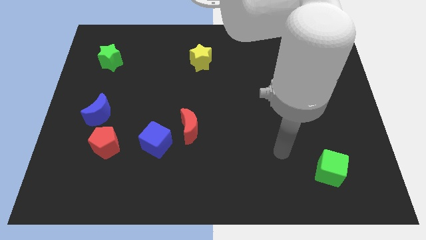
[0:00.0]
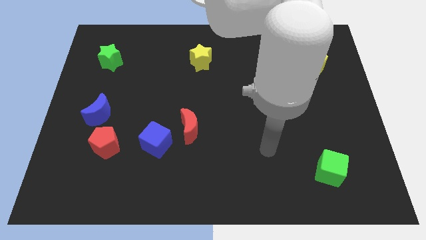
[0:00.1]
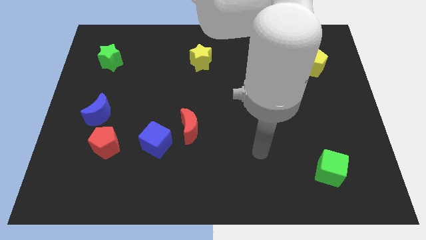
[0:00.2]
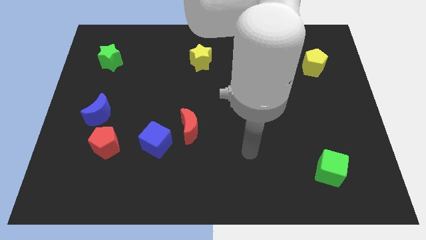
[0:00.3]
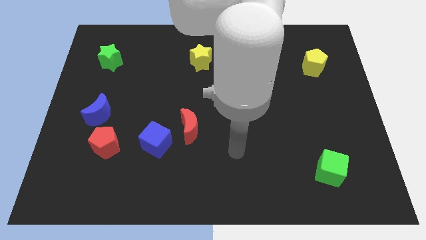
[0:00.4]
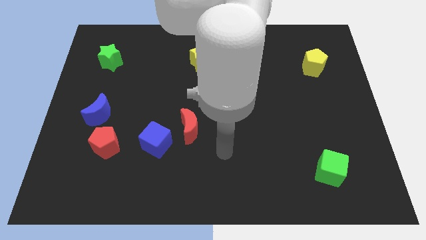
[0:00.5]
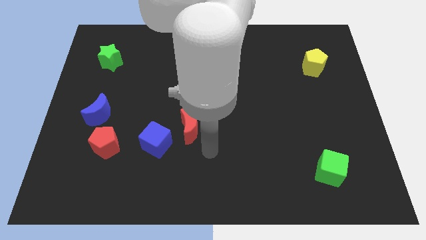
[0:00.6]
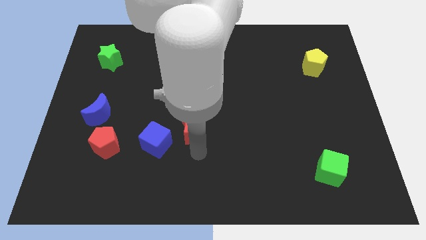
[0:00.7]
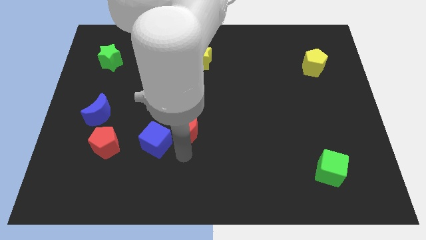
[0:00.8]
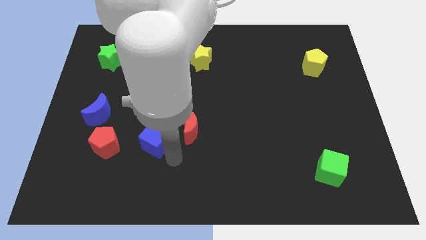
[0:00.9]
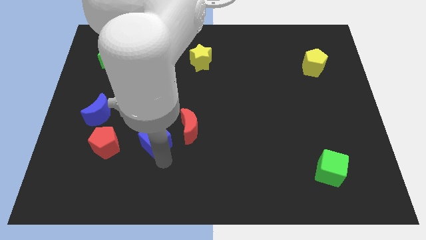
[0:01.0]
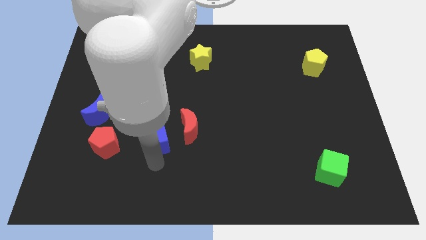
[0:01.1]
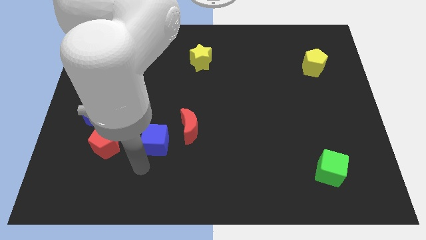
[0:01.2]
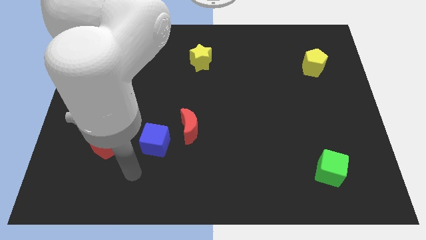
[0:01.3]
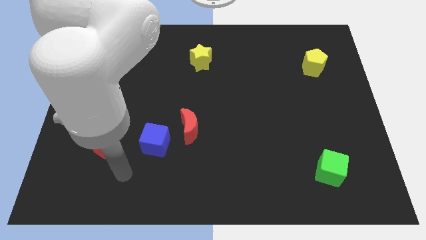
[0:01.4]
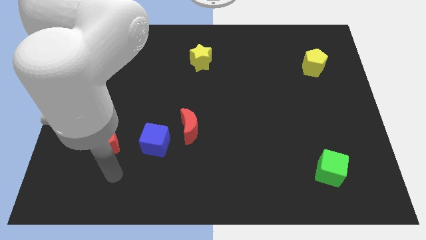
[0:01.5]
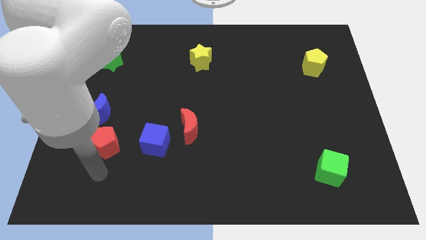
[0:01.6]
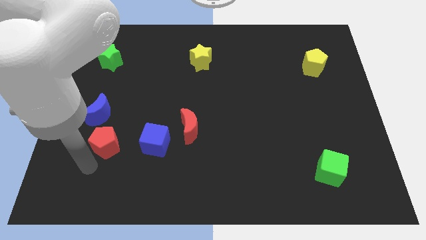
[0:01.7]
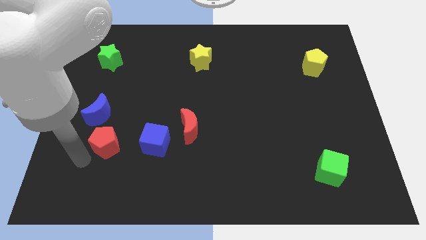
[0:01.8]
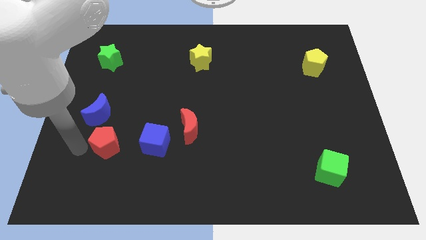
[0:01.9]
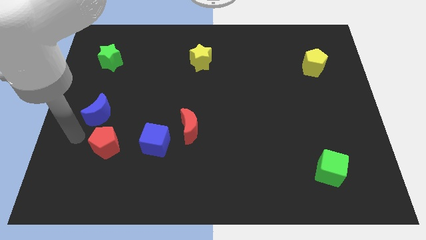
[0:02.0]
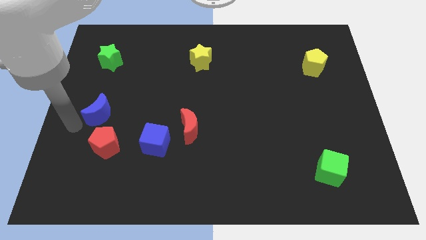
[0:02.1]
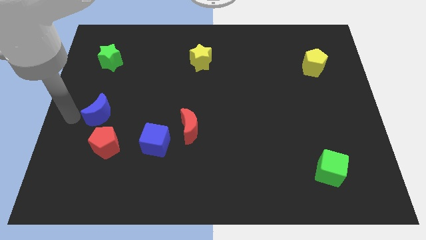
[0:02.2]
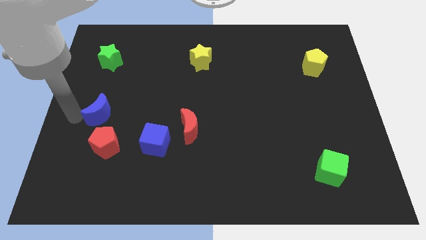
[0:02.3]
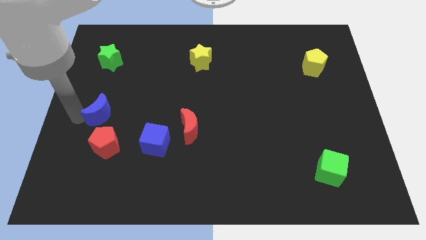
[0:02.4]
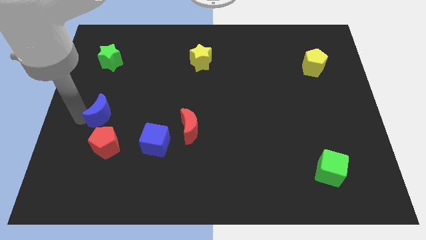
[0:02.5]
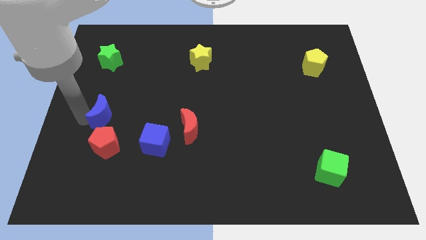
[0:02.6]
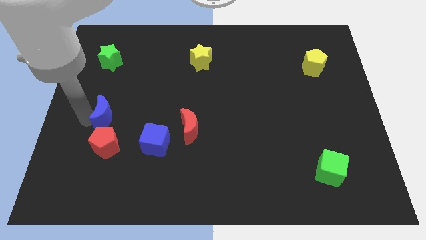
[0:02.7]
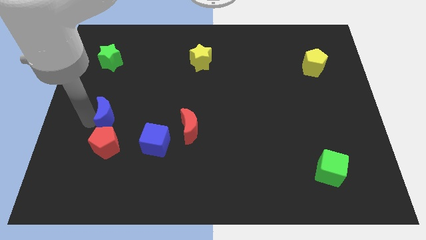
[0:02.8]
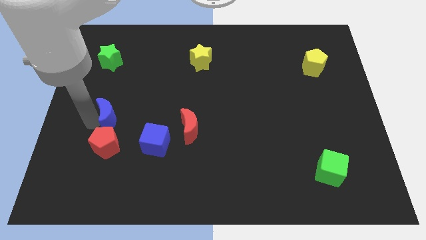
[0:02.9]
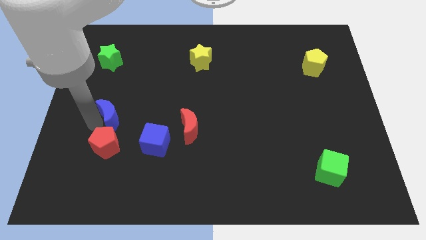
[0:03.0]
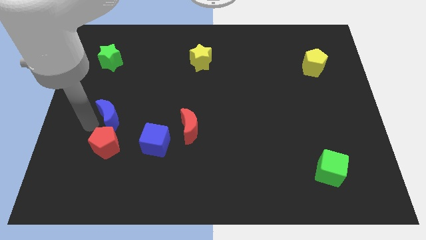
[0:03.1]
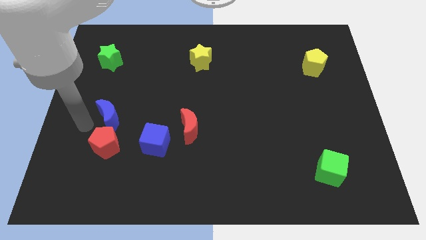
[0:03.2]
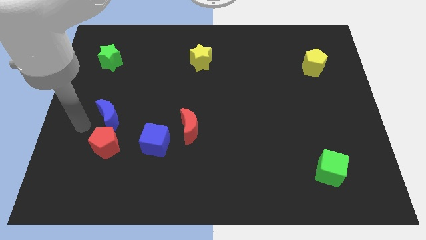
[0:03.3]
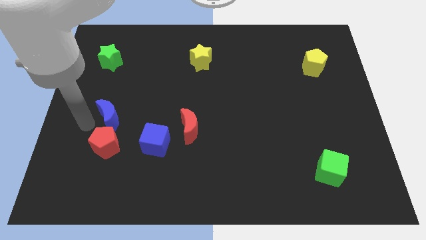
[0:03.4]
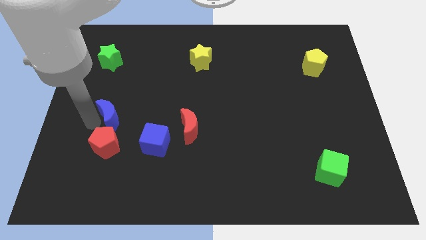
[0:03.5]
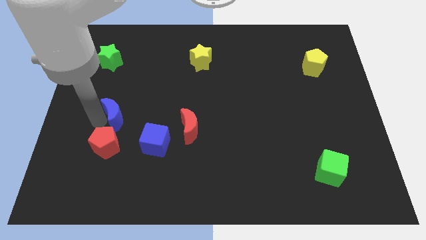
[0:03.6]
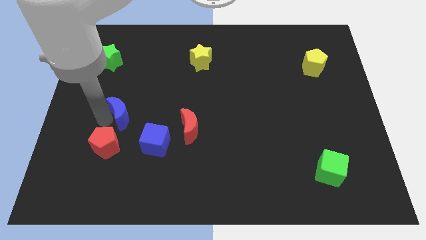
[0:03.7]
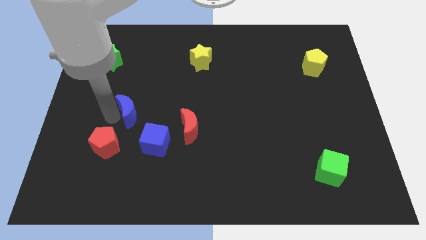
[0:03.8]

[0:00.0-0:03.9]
slightly move the blue moon to the right

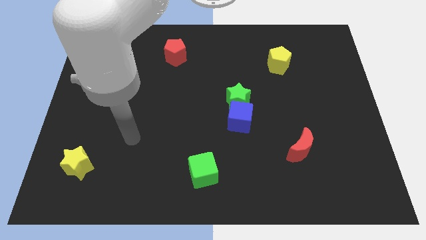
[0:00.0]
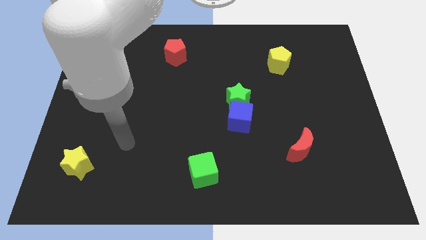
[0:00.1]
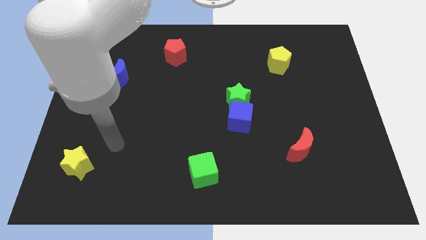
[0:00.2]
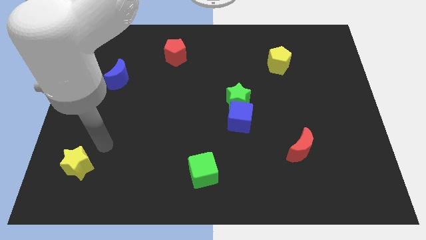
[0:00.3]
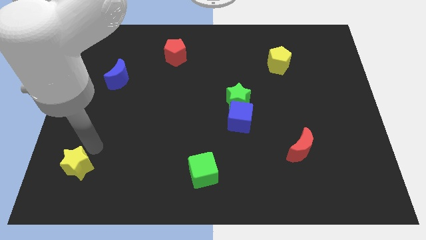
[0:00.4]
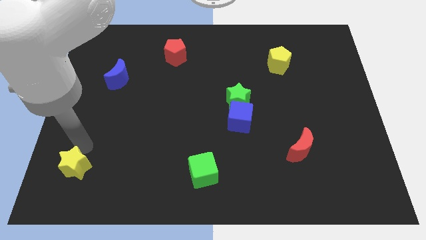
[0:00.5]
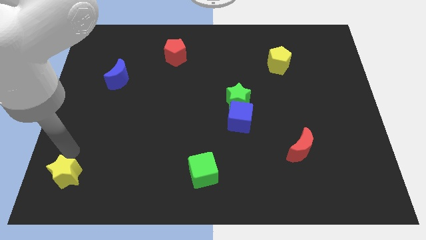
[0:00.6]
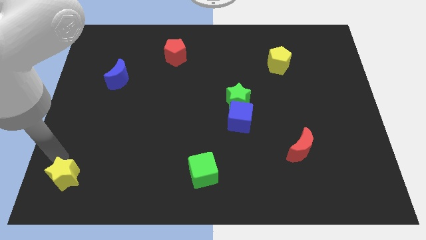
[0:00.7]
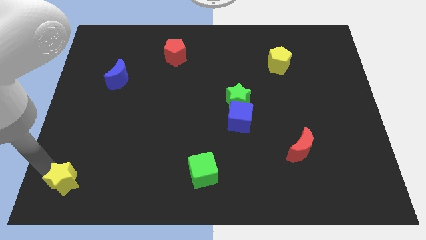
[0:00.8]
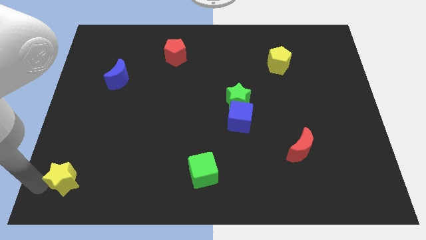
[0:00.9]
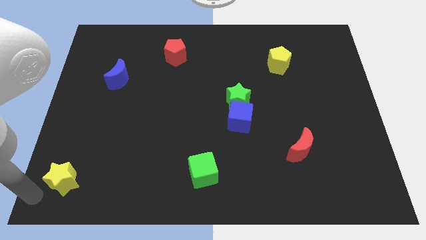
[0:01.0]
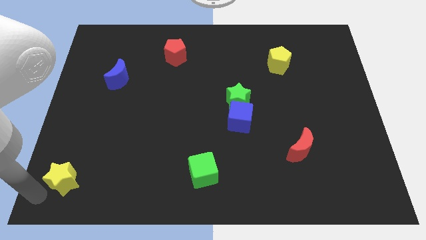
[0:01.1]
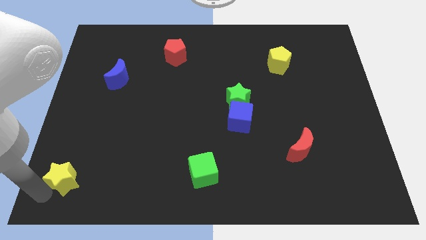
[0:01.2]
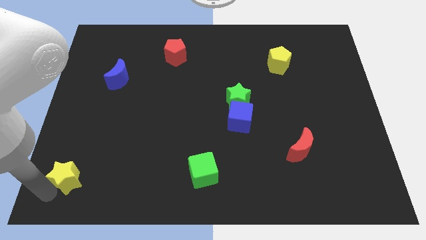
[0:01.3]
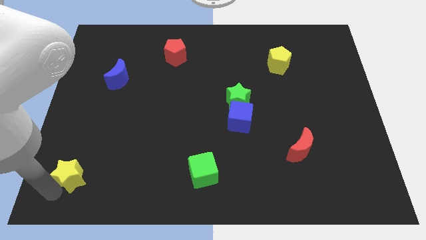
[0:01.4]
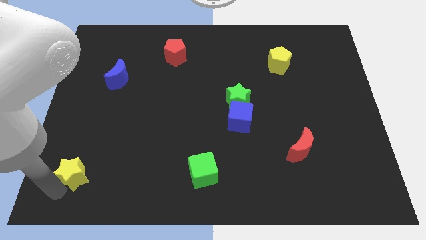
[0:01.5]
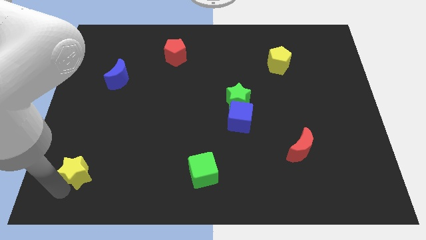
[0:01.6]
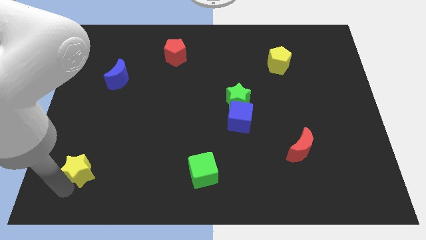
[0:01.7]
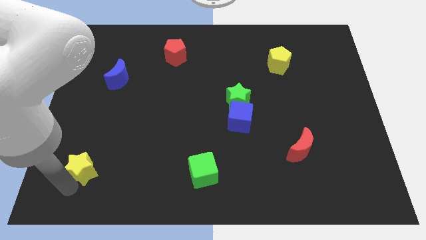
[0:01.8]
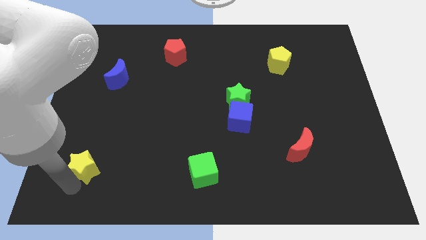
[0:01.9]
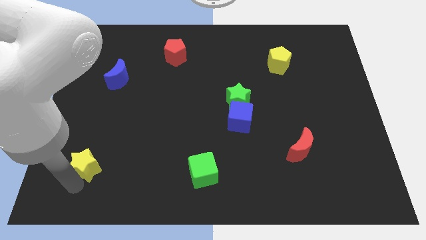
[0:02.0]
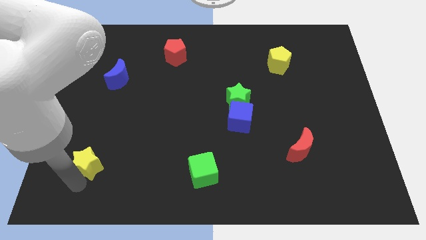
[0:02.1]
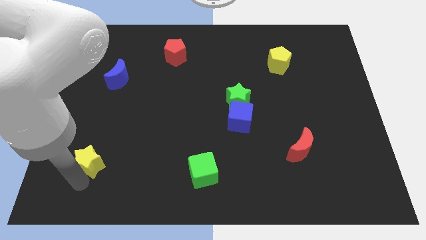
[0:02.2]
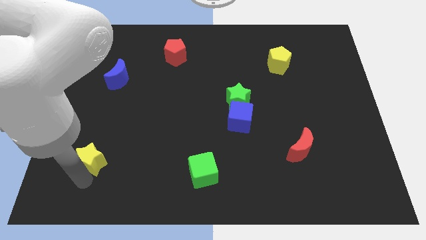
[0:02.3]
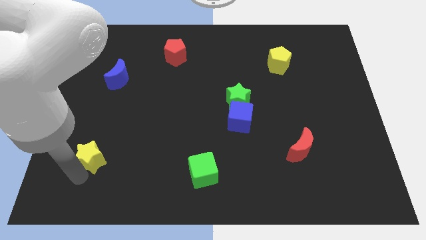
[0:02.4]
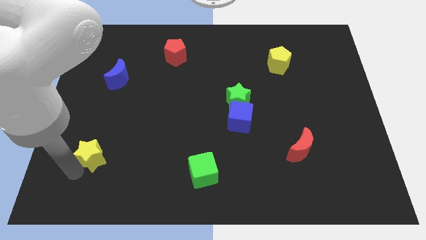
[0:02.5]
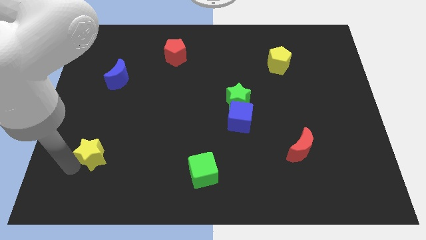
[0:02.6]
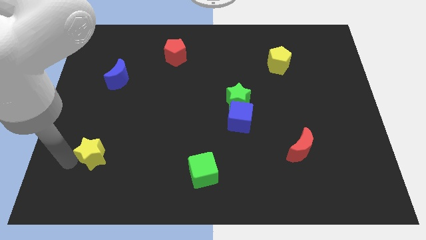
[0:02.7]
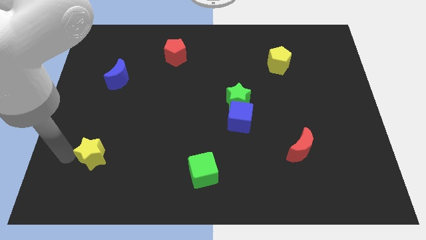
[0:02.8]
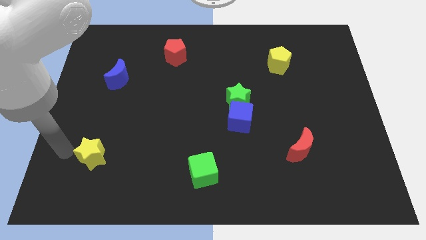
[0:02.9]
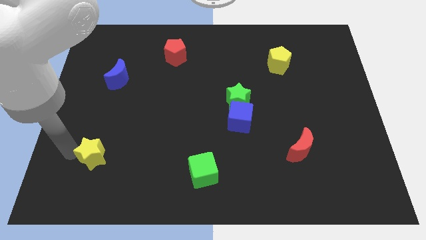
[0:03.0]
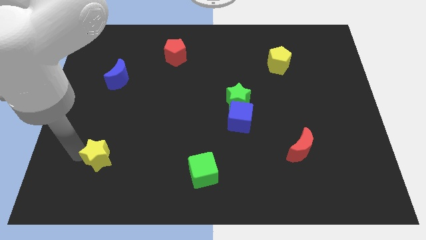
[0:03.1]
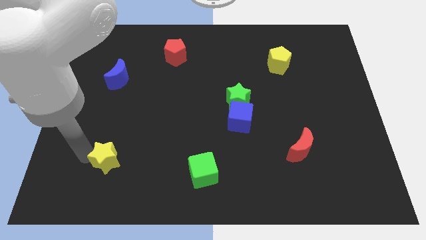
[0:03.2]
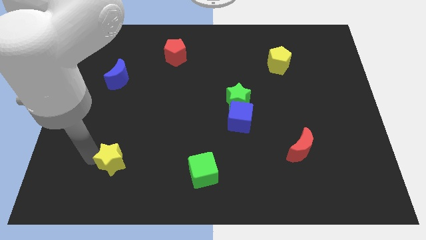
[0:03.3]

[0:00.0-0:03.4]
slide the yellow star a little bit right

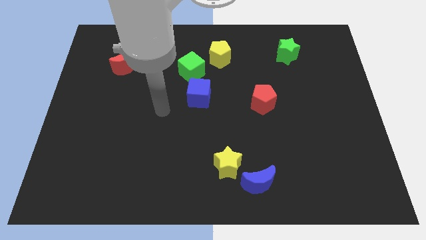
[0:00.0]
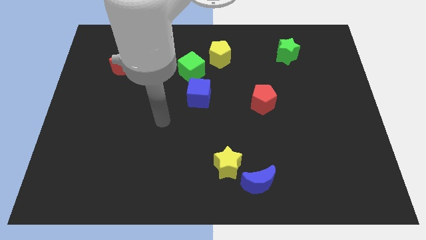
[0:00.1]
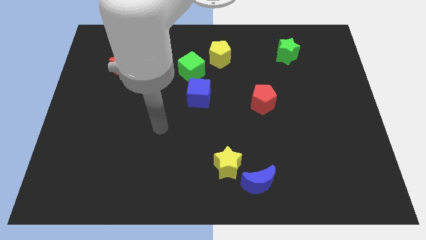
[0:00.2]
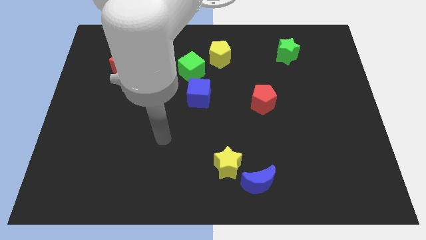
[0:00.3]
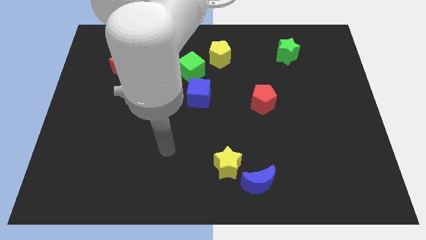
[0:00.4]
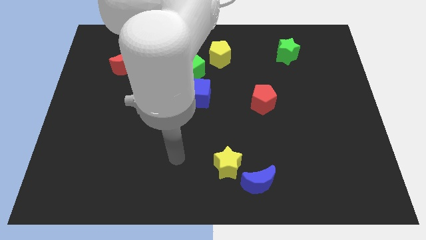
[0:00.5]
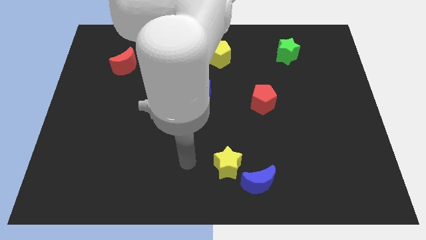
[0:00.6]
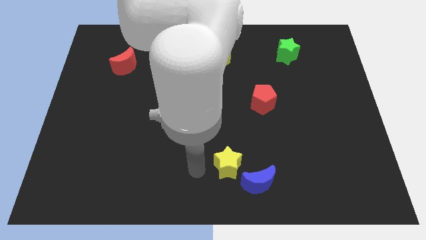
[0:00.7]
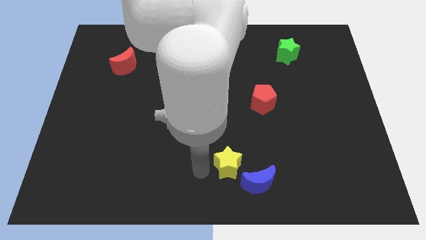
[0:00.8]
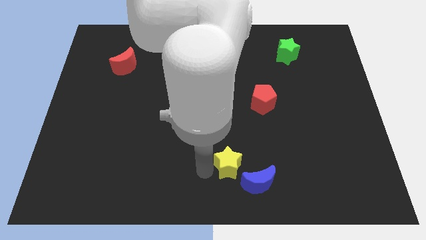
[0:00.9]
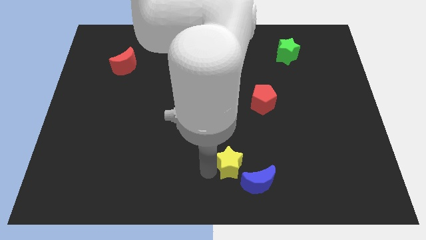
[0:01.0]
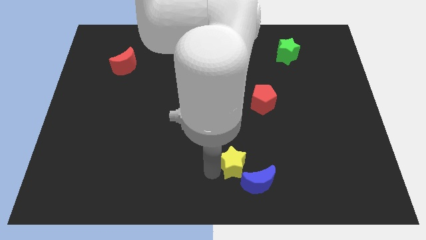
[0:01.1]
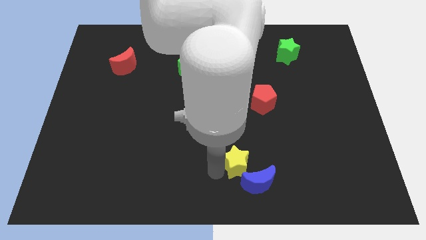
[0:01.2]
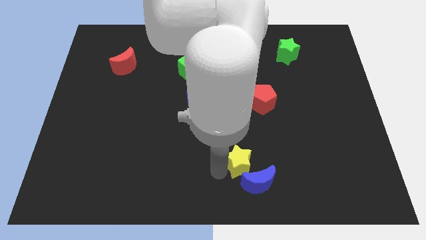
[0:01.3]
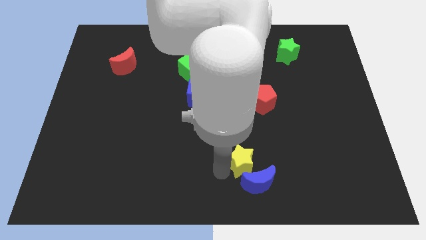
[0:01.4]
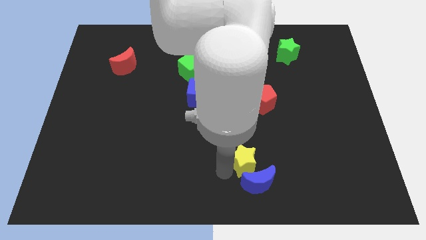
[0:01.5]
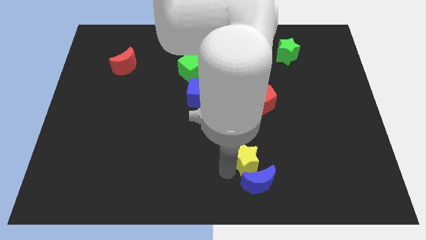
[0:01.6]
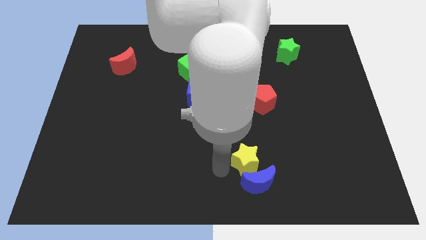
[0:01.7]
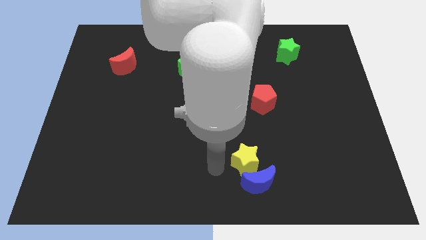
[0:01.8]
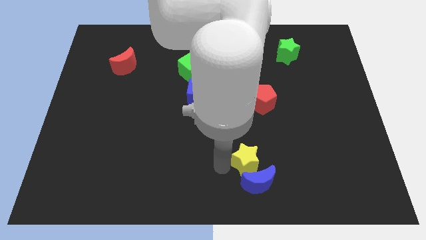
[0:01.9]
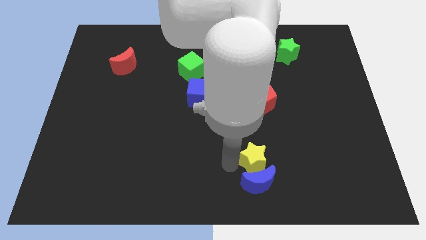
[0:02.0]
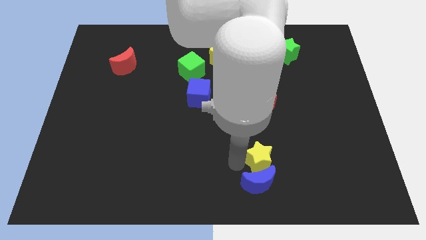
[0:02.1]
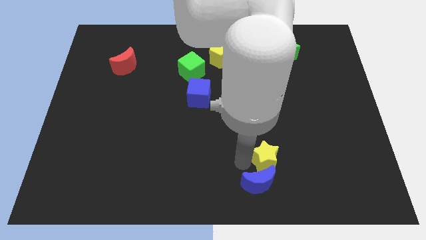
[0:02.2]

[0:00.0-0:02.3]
move the yellow star right somewhat
